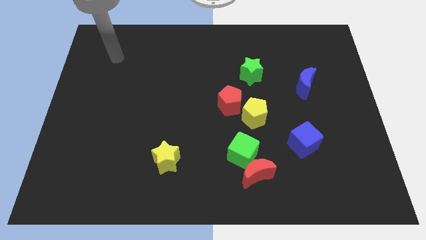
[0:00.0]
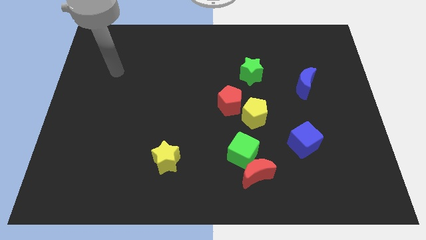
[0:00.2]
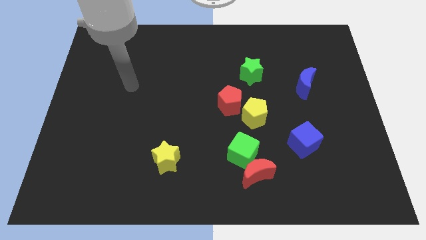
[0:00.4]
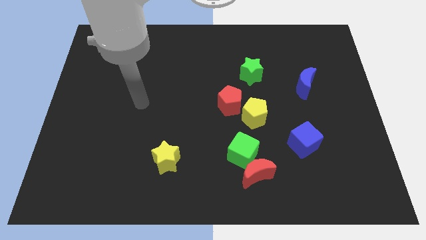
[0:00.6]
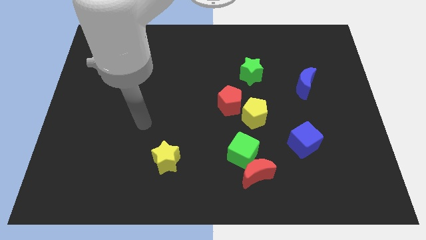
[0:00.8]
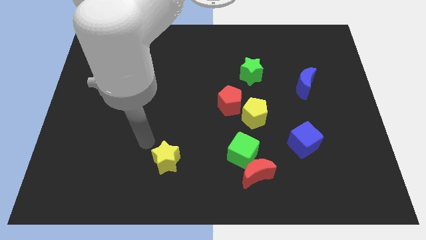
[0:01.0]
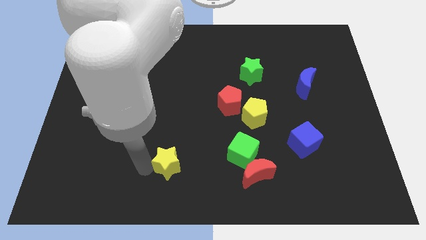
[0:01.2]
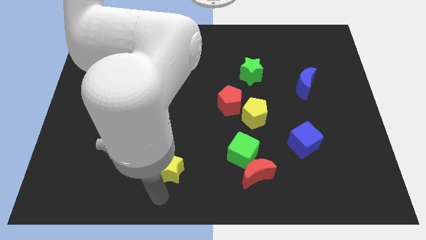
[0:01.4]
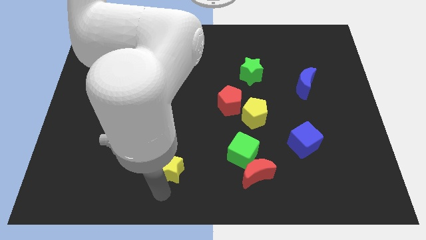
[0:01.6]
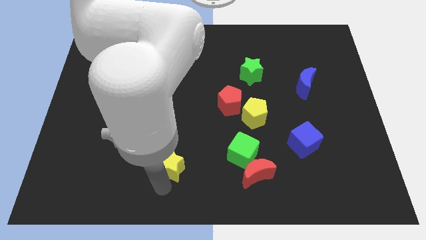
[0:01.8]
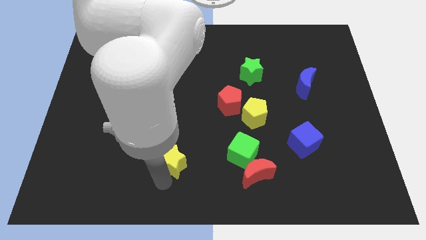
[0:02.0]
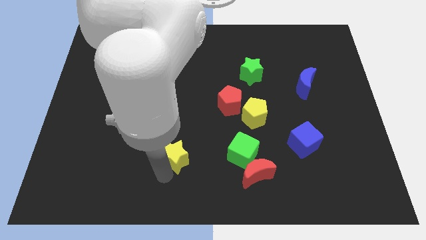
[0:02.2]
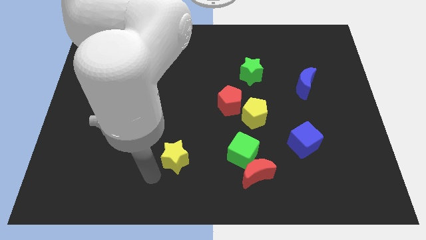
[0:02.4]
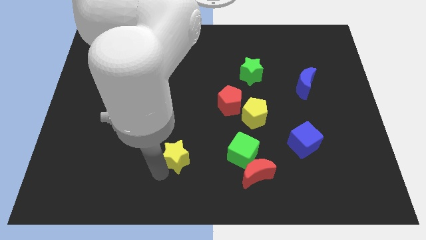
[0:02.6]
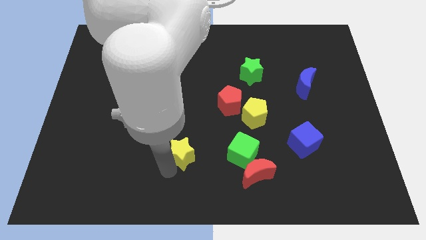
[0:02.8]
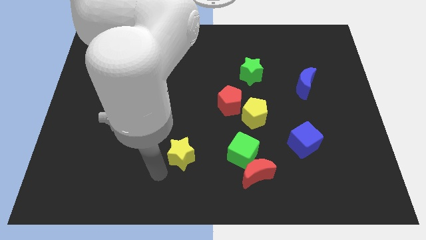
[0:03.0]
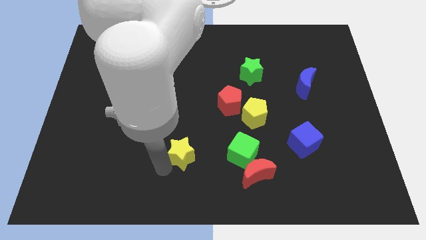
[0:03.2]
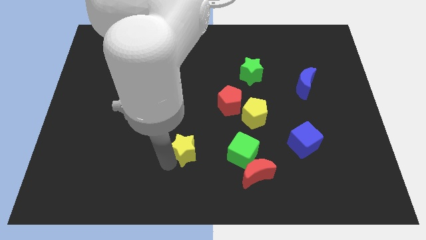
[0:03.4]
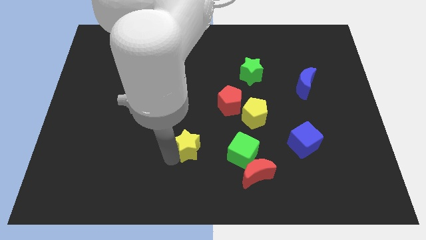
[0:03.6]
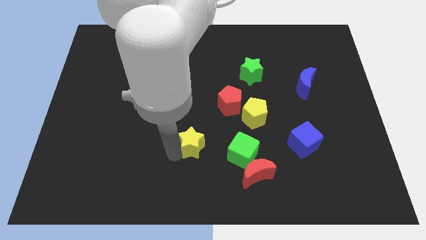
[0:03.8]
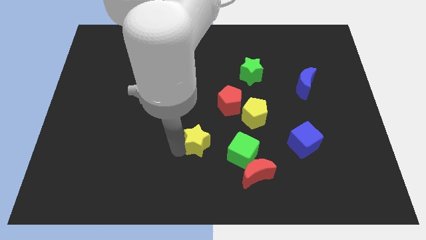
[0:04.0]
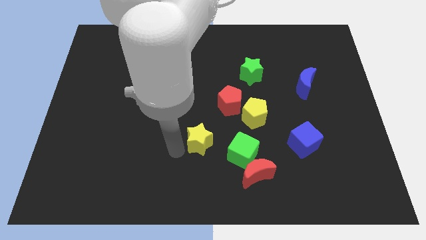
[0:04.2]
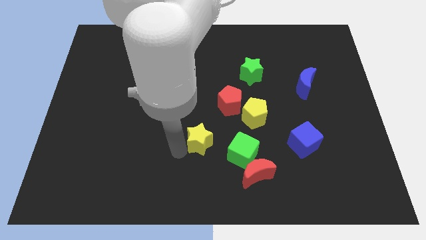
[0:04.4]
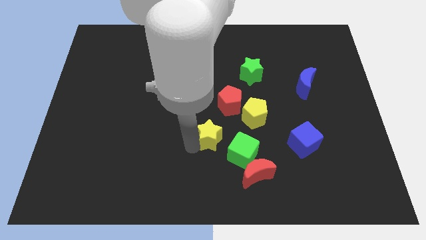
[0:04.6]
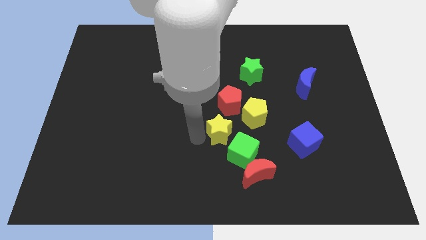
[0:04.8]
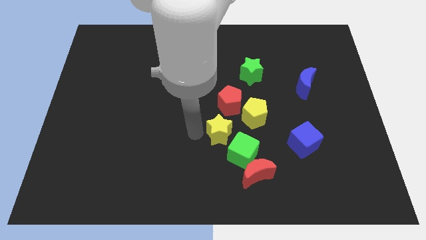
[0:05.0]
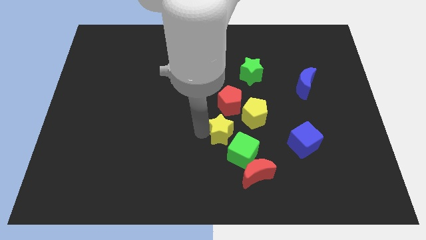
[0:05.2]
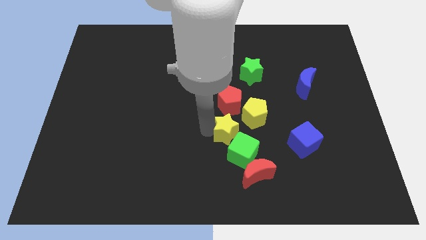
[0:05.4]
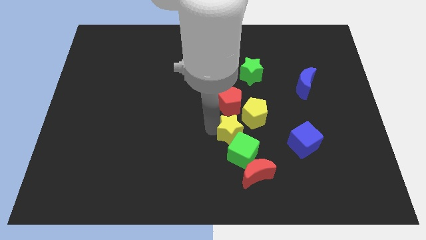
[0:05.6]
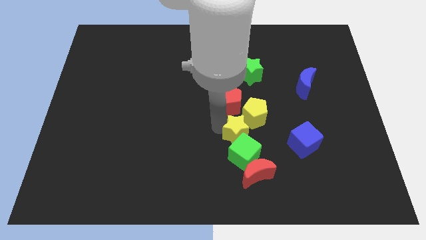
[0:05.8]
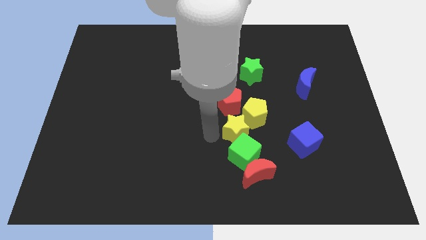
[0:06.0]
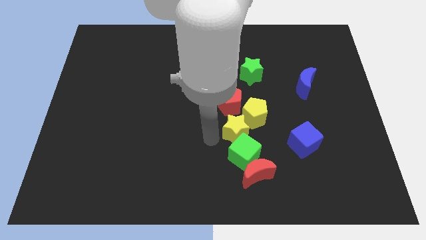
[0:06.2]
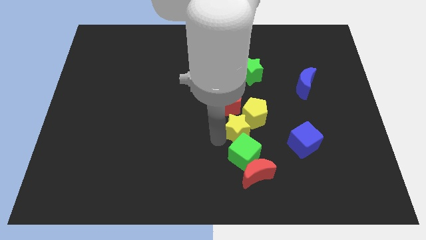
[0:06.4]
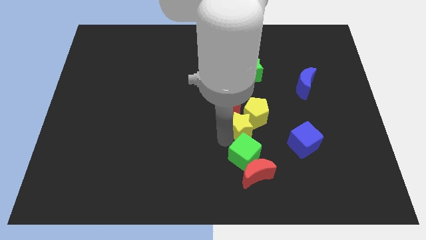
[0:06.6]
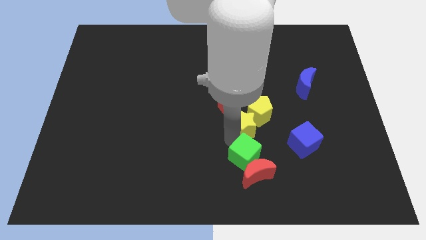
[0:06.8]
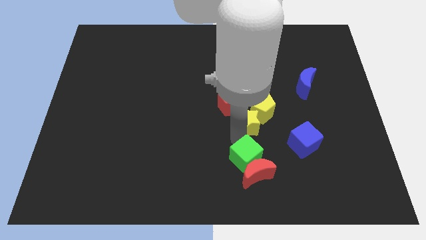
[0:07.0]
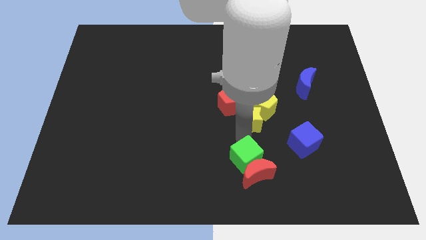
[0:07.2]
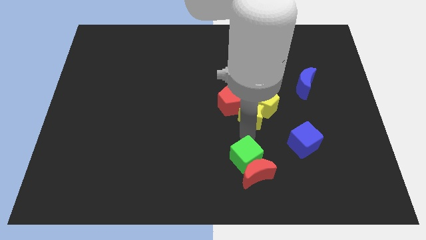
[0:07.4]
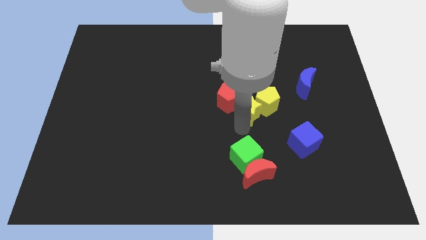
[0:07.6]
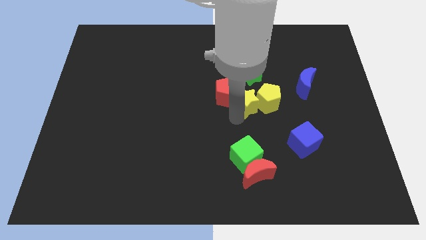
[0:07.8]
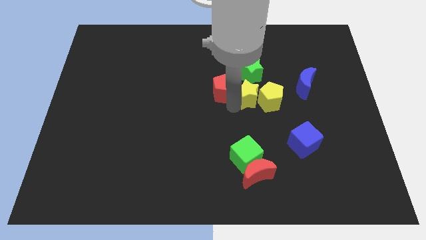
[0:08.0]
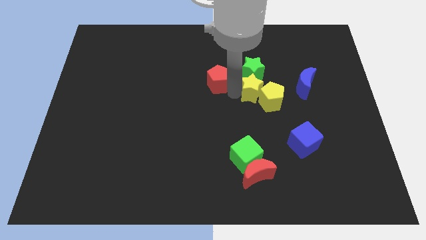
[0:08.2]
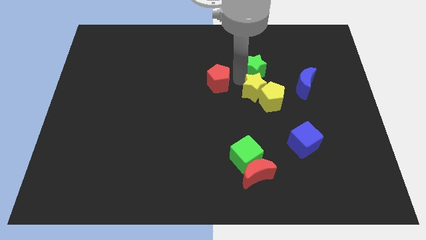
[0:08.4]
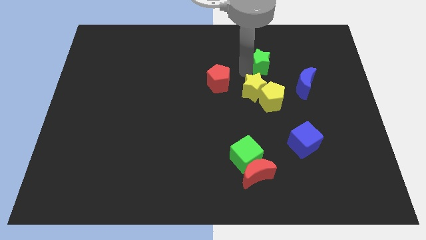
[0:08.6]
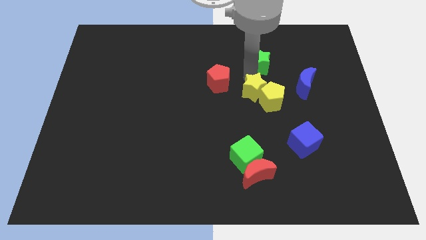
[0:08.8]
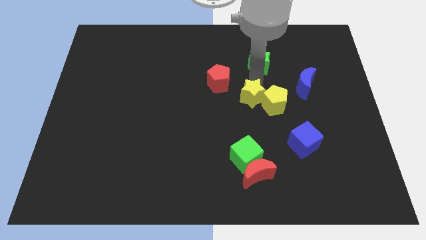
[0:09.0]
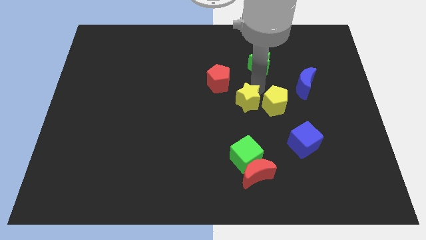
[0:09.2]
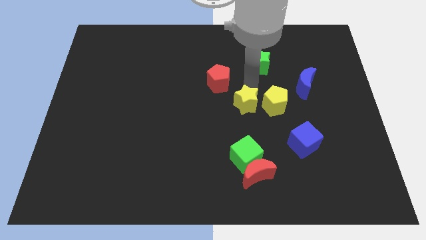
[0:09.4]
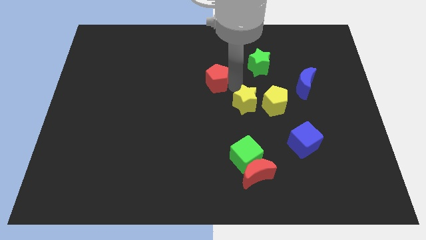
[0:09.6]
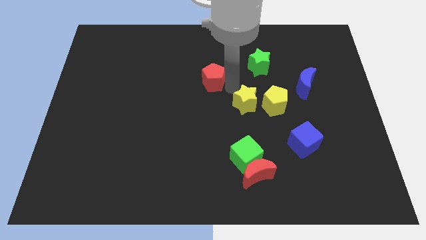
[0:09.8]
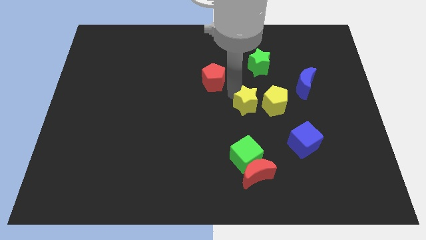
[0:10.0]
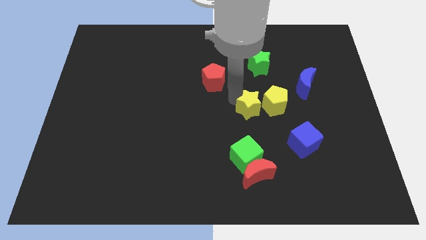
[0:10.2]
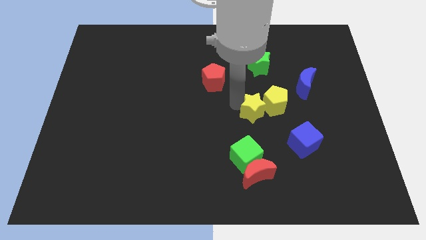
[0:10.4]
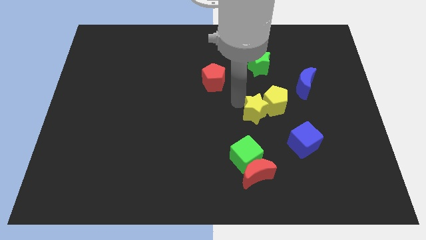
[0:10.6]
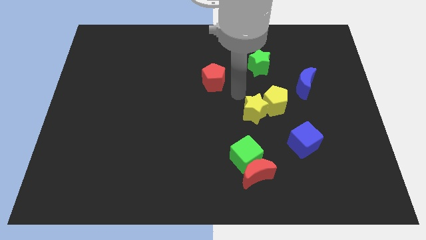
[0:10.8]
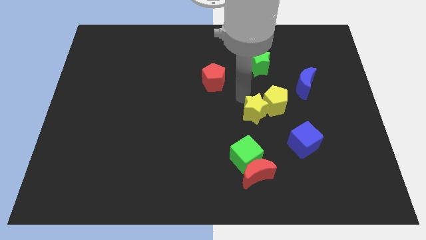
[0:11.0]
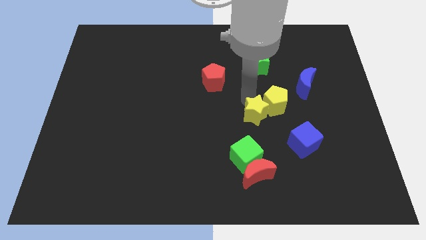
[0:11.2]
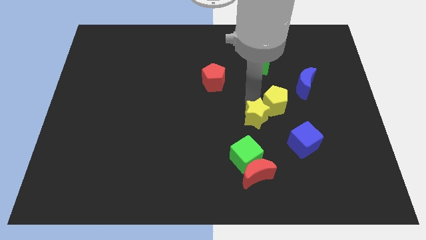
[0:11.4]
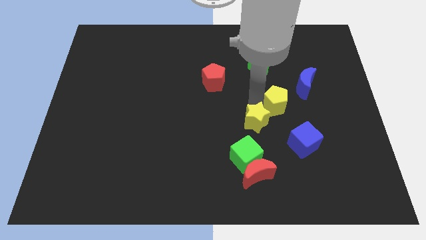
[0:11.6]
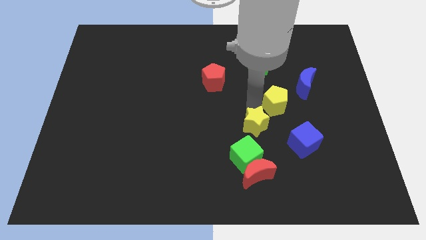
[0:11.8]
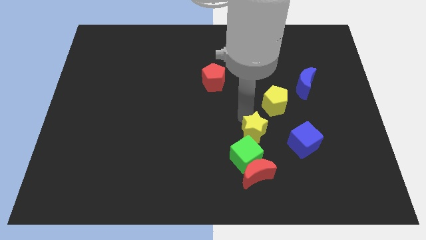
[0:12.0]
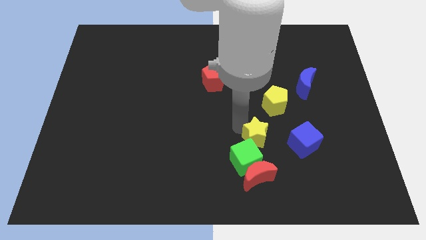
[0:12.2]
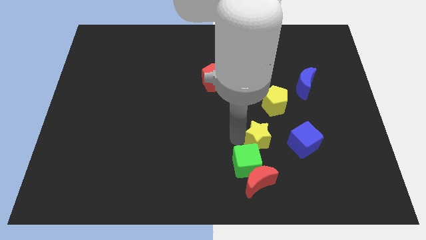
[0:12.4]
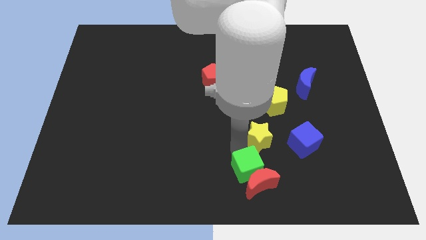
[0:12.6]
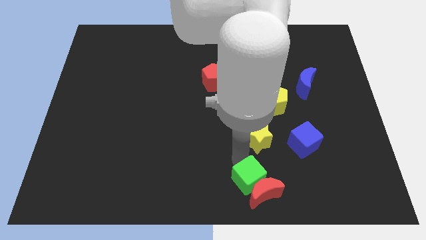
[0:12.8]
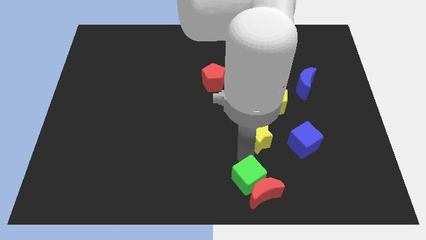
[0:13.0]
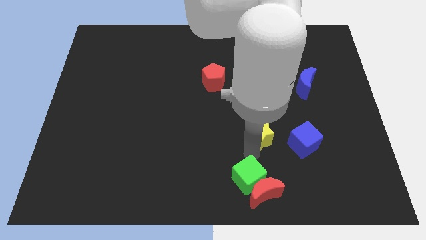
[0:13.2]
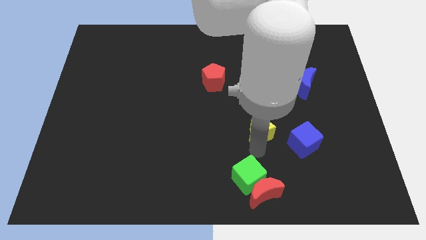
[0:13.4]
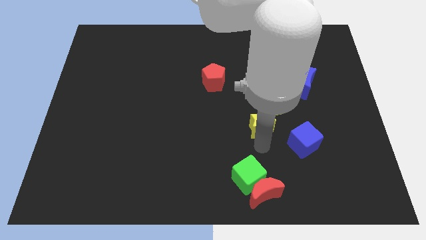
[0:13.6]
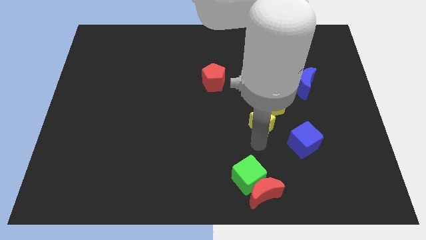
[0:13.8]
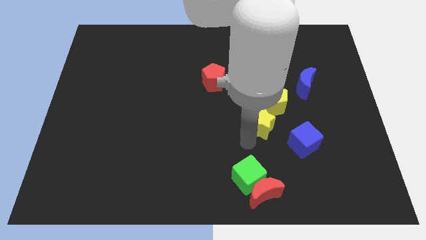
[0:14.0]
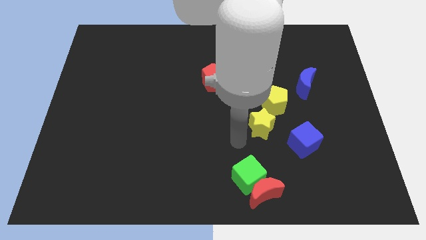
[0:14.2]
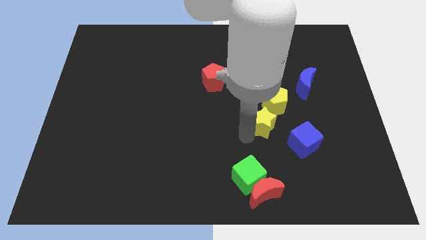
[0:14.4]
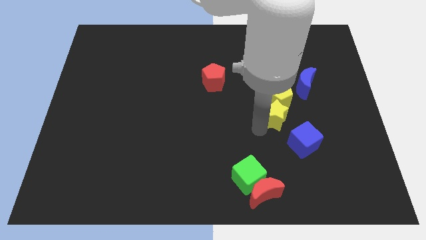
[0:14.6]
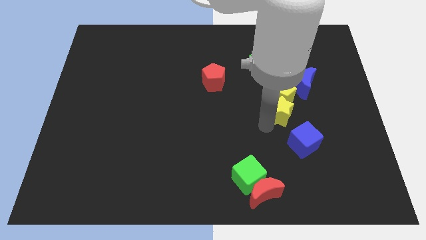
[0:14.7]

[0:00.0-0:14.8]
slide the yellow star diagonally down and to the left of the blue moon

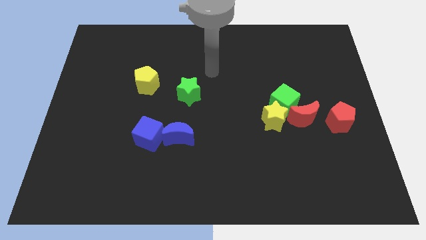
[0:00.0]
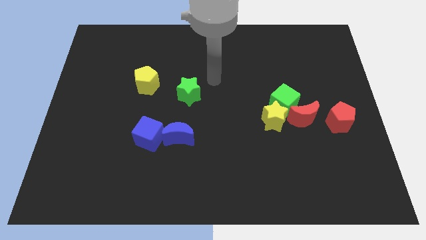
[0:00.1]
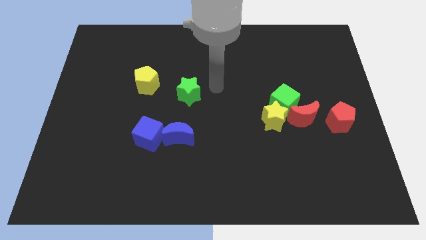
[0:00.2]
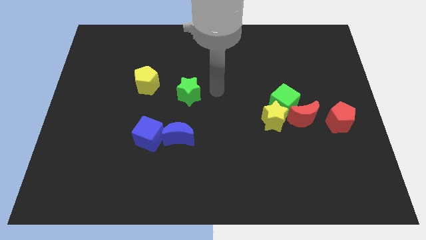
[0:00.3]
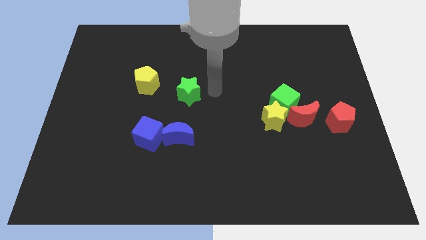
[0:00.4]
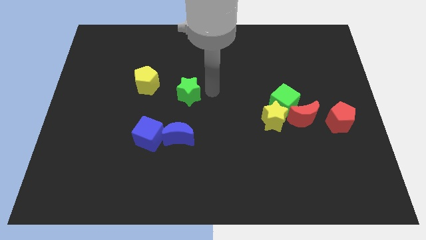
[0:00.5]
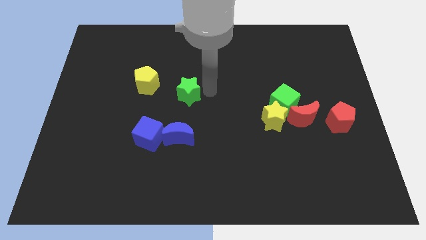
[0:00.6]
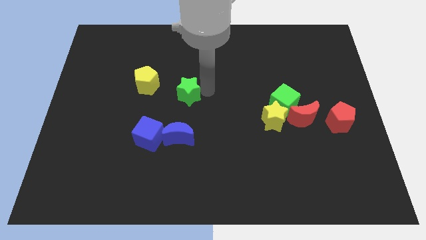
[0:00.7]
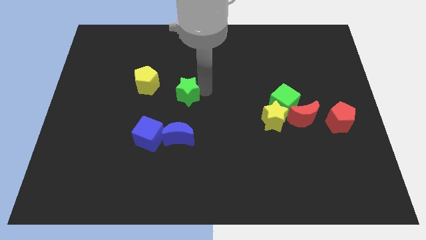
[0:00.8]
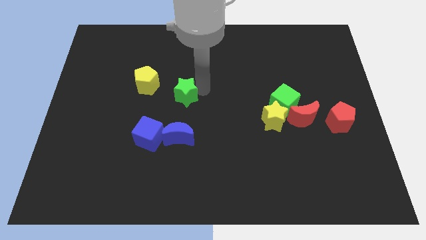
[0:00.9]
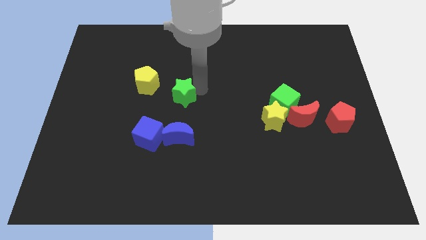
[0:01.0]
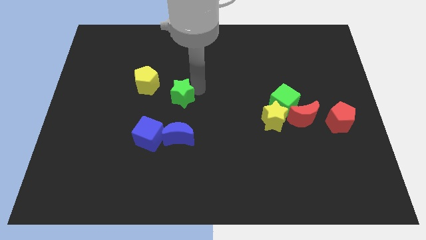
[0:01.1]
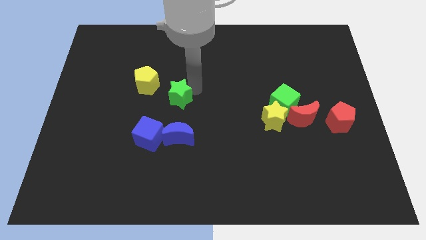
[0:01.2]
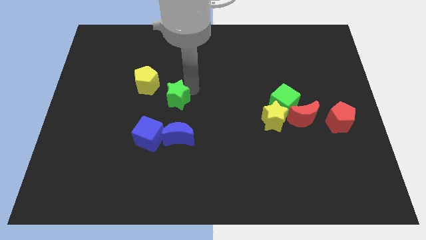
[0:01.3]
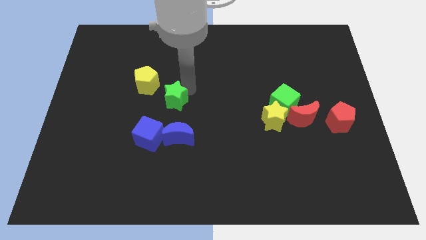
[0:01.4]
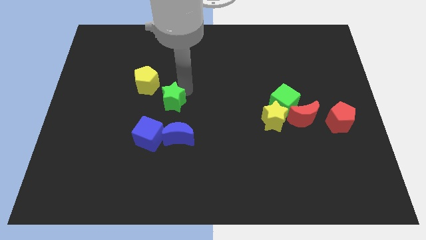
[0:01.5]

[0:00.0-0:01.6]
put the green star above the blue cube
